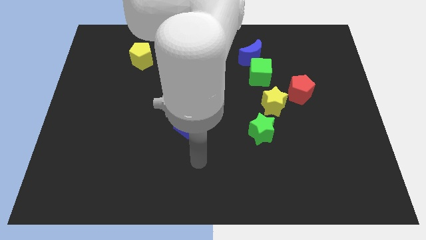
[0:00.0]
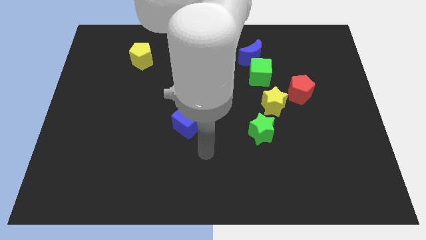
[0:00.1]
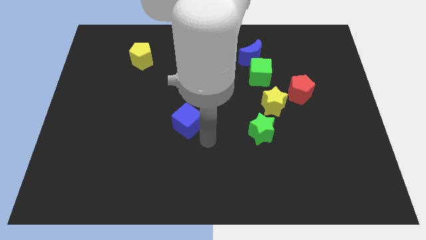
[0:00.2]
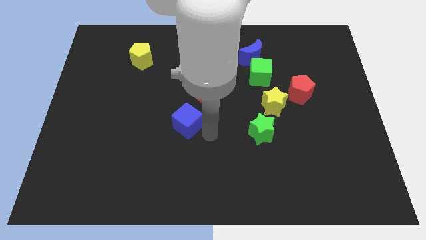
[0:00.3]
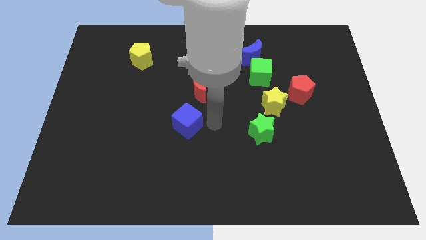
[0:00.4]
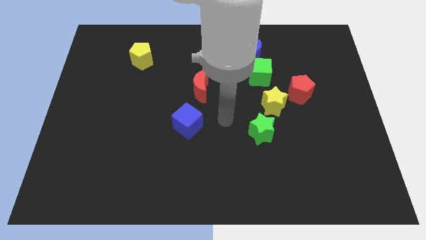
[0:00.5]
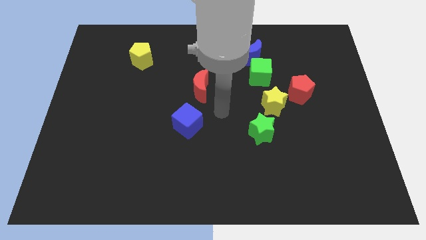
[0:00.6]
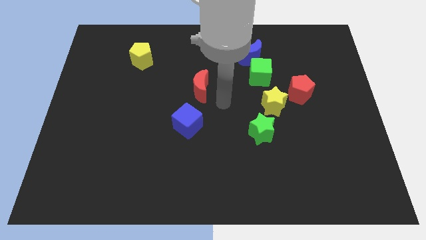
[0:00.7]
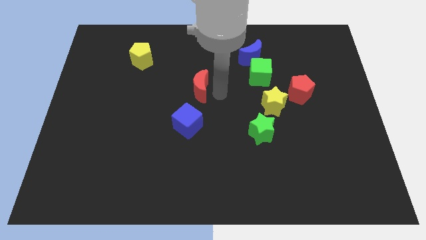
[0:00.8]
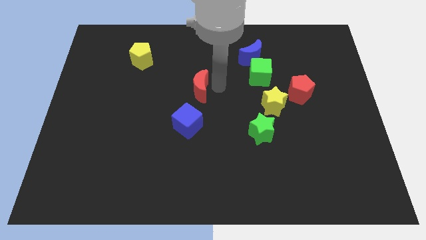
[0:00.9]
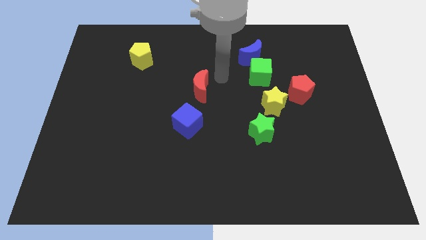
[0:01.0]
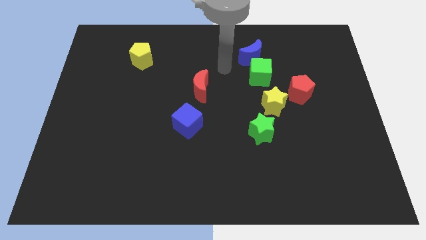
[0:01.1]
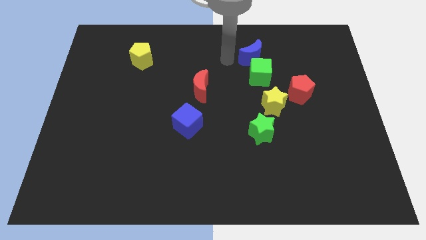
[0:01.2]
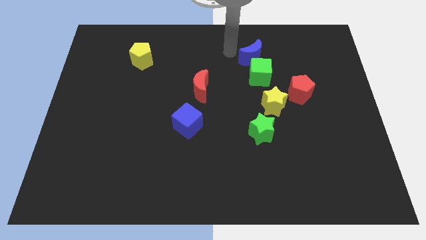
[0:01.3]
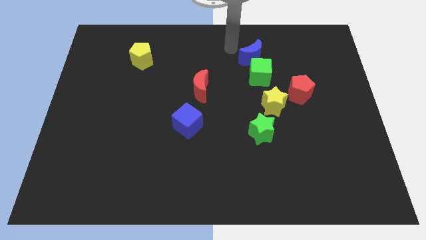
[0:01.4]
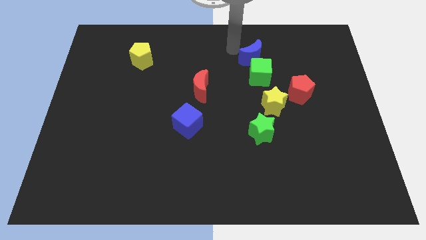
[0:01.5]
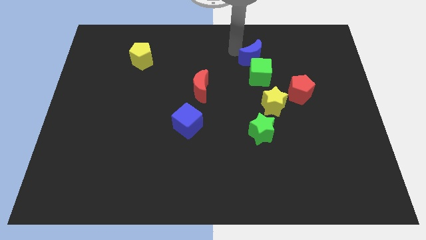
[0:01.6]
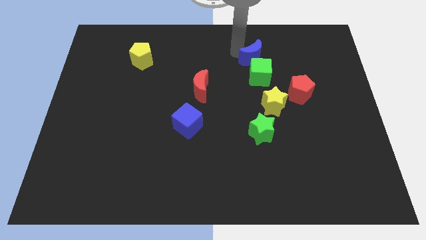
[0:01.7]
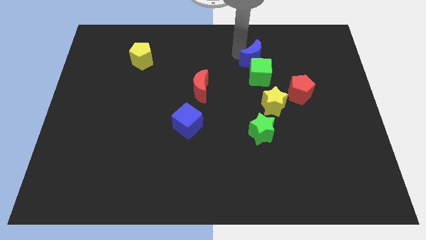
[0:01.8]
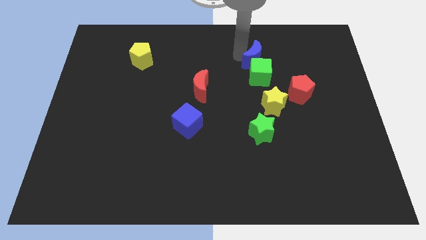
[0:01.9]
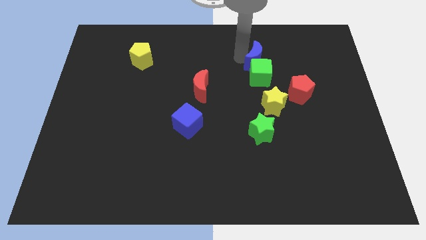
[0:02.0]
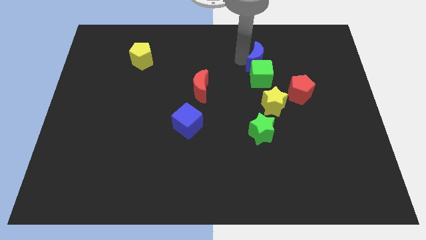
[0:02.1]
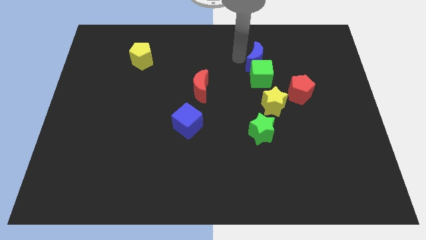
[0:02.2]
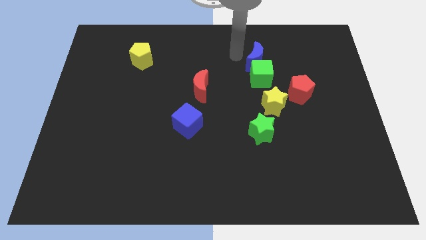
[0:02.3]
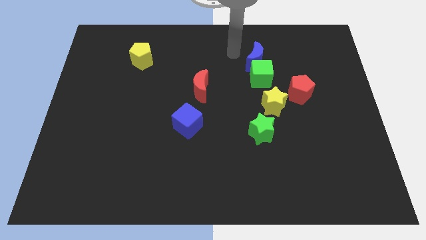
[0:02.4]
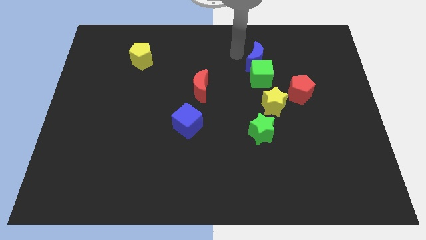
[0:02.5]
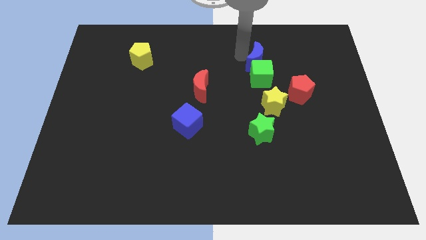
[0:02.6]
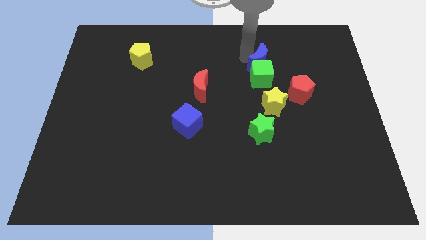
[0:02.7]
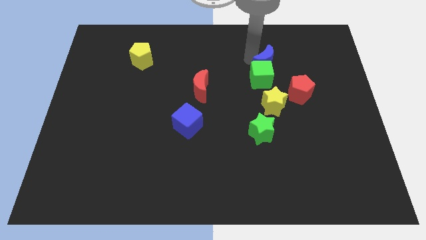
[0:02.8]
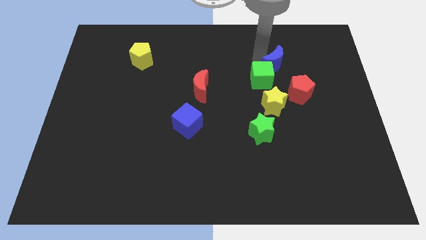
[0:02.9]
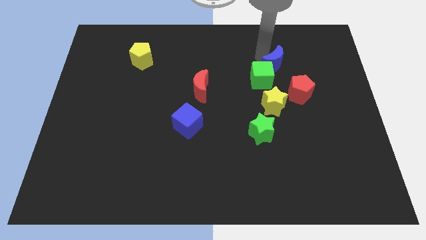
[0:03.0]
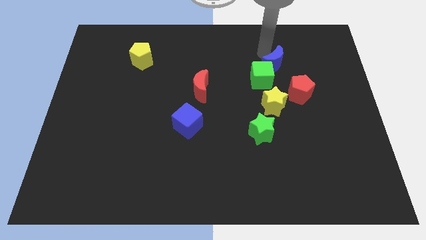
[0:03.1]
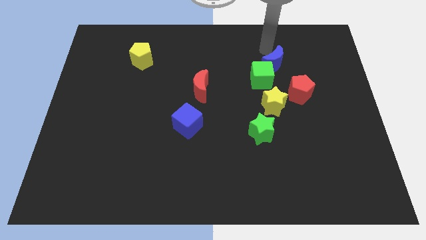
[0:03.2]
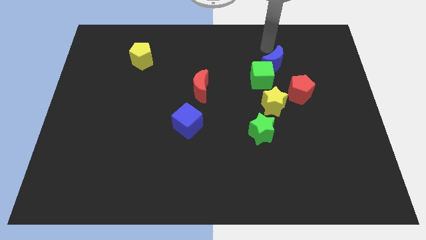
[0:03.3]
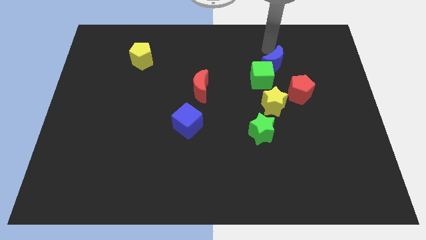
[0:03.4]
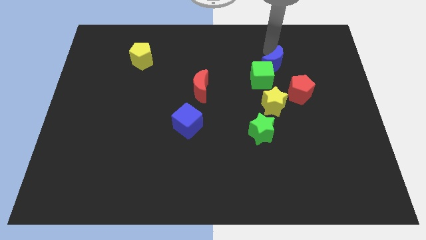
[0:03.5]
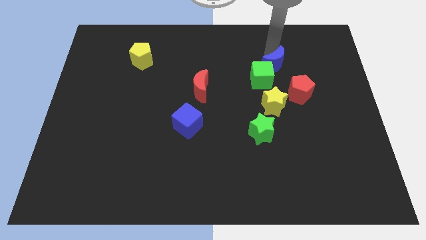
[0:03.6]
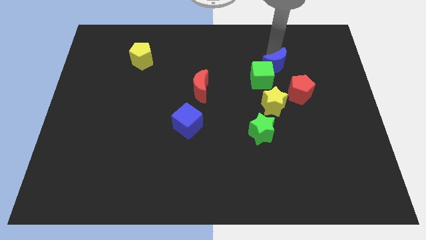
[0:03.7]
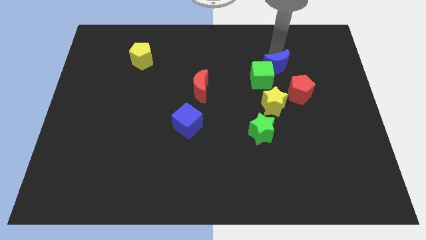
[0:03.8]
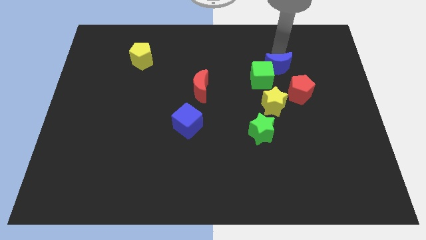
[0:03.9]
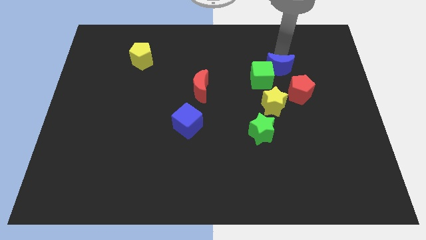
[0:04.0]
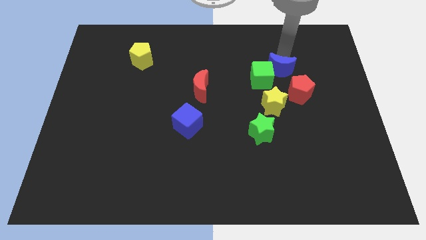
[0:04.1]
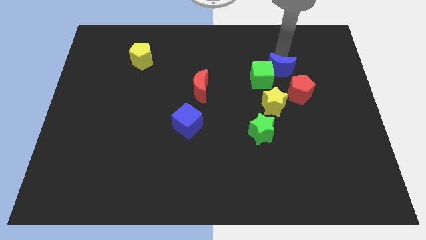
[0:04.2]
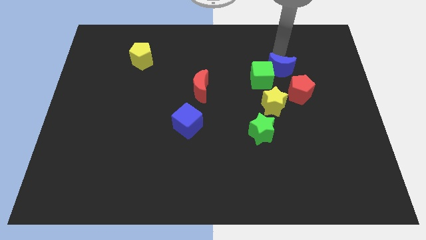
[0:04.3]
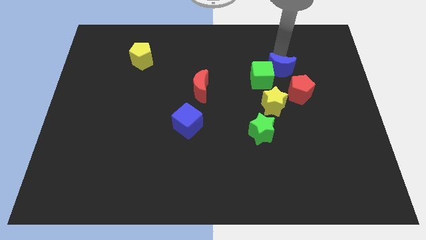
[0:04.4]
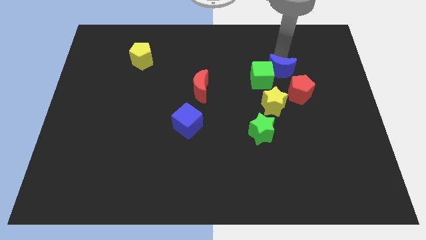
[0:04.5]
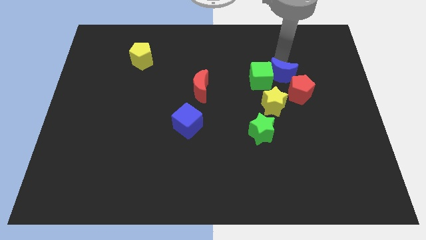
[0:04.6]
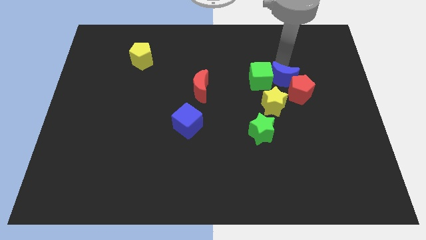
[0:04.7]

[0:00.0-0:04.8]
put the blue moon close to the red pentagon

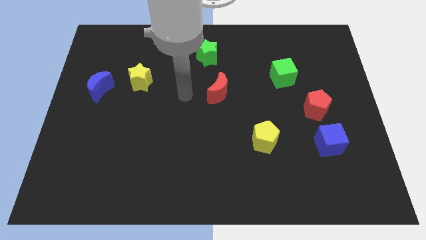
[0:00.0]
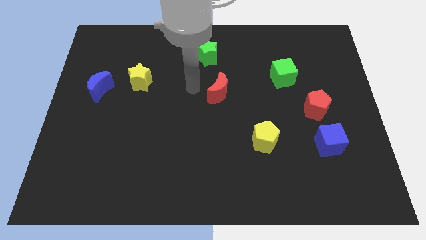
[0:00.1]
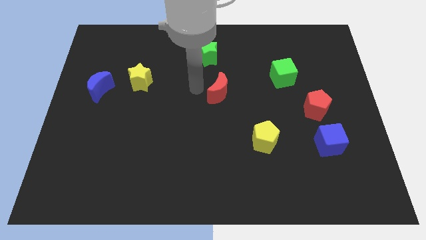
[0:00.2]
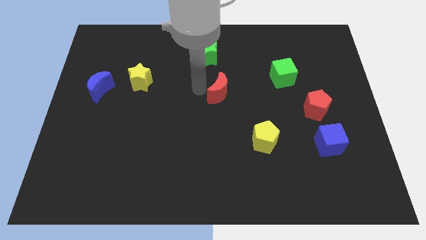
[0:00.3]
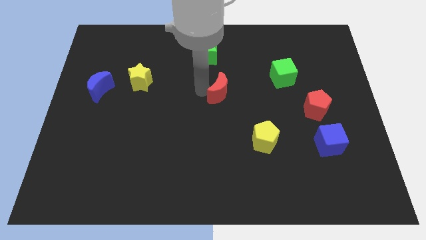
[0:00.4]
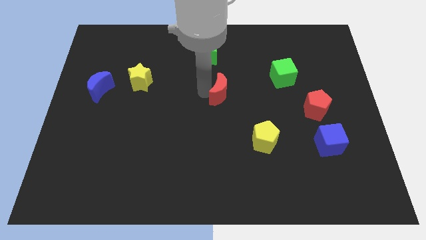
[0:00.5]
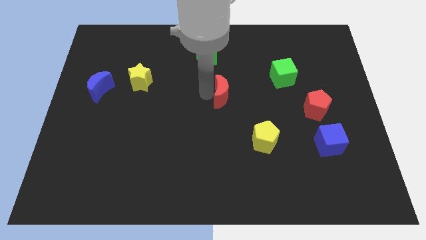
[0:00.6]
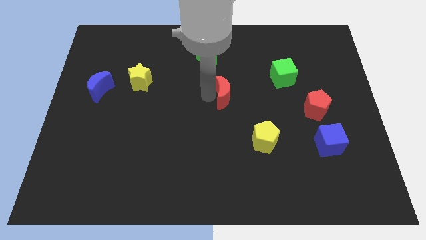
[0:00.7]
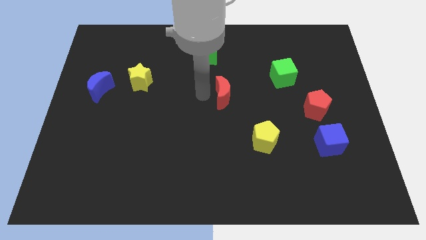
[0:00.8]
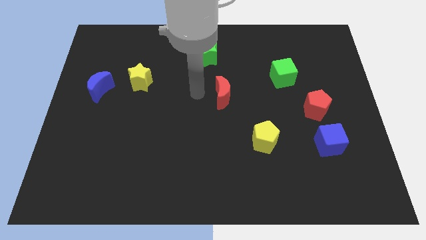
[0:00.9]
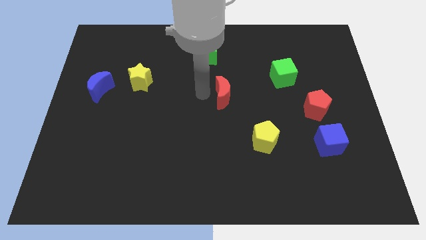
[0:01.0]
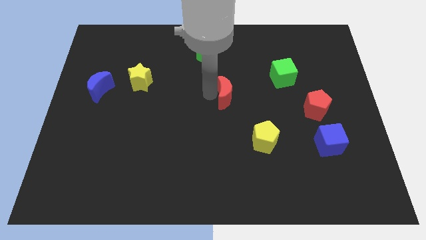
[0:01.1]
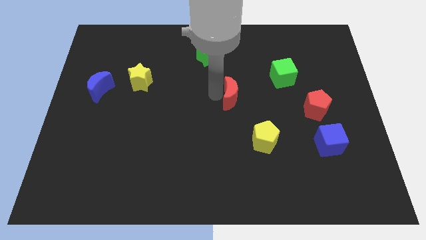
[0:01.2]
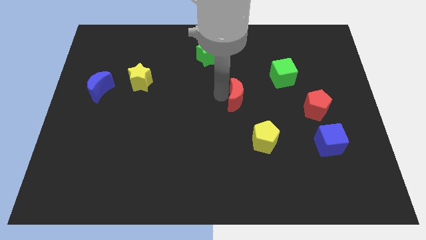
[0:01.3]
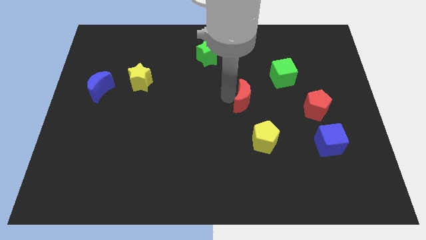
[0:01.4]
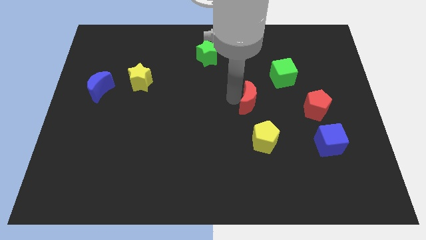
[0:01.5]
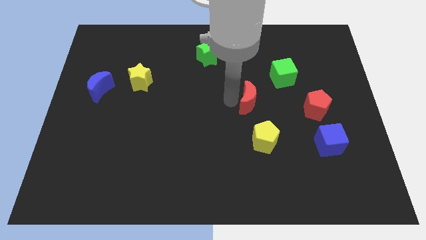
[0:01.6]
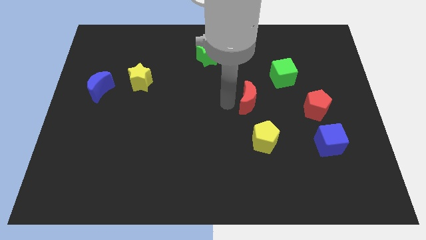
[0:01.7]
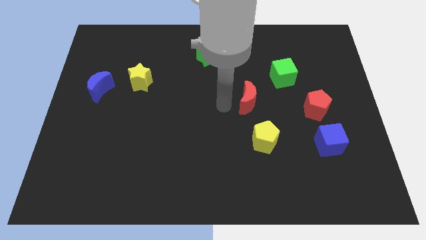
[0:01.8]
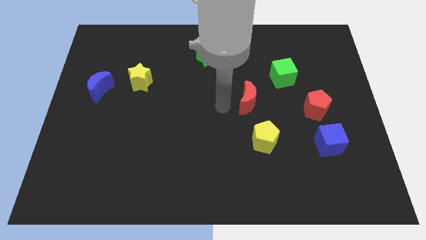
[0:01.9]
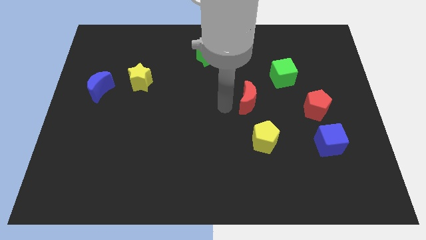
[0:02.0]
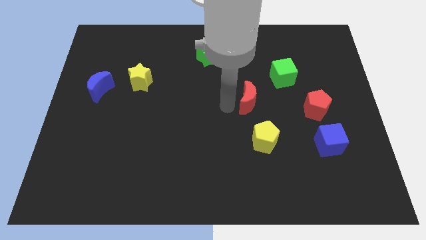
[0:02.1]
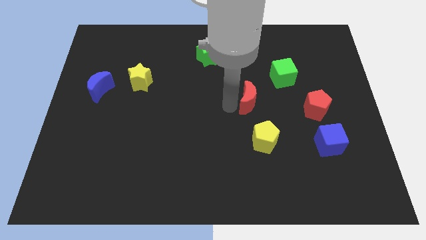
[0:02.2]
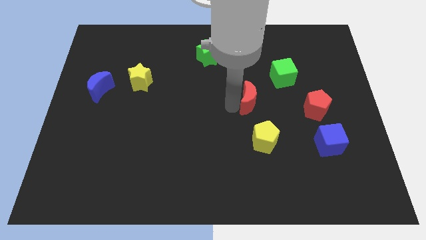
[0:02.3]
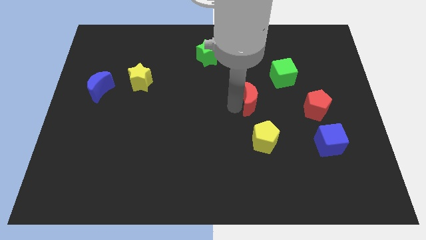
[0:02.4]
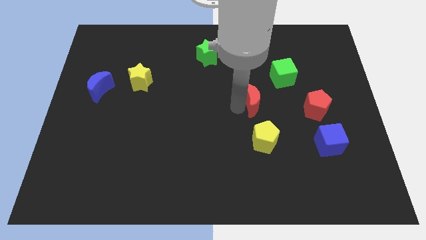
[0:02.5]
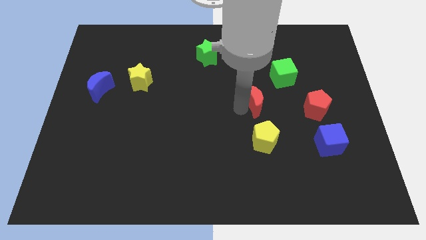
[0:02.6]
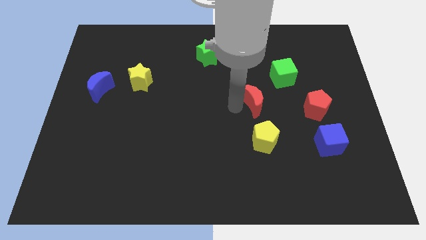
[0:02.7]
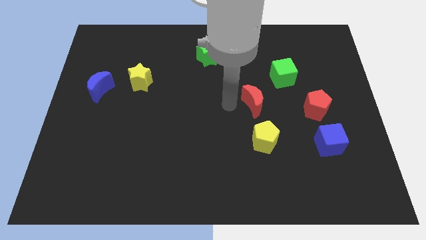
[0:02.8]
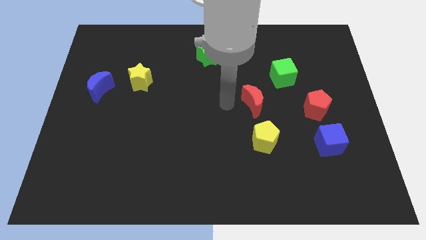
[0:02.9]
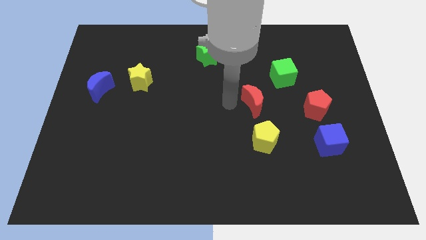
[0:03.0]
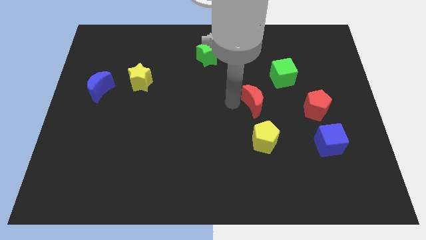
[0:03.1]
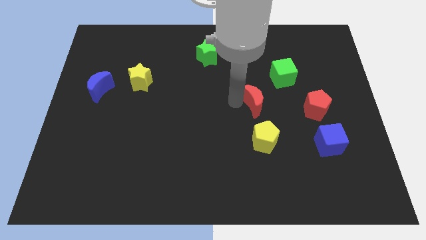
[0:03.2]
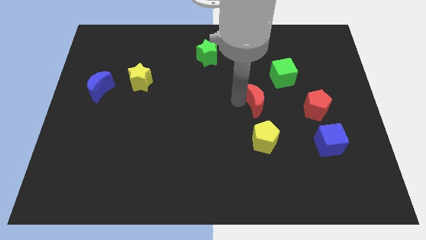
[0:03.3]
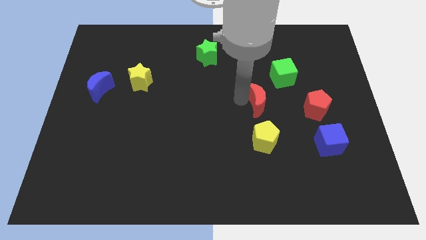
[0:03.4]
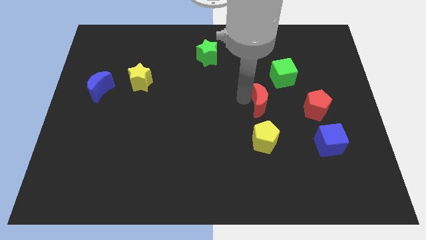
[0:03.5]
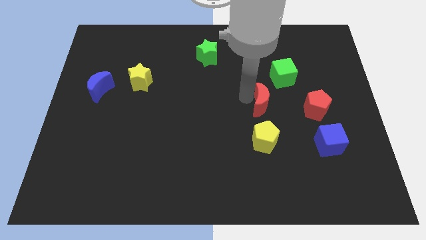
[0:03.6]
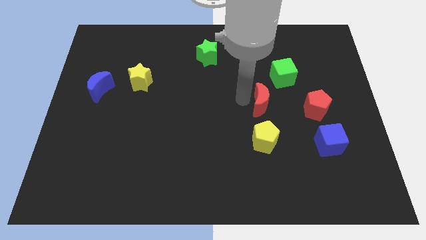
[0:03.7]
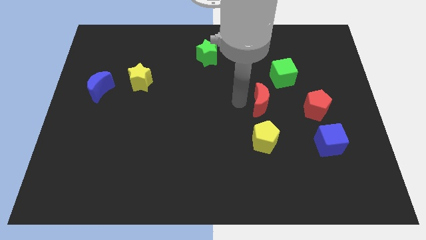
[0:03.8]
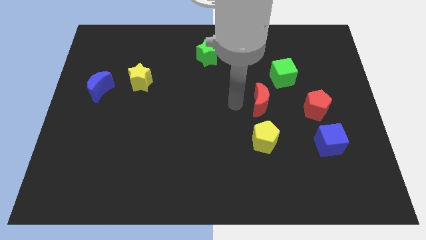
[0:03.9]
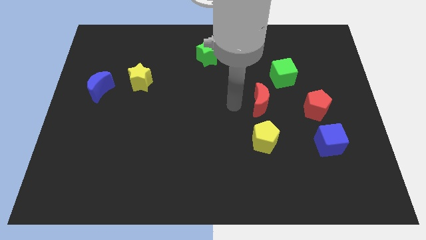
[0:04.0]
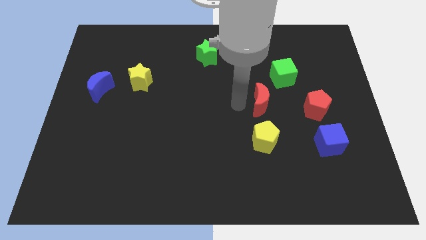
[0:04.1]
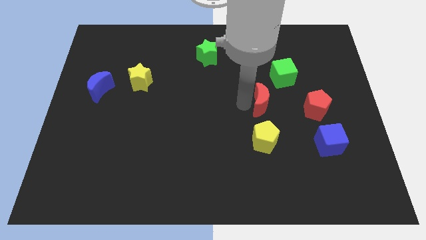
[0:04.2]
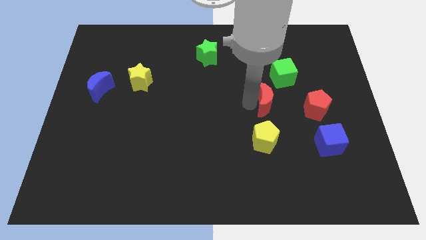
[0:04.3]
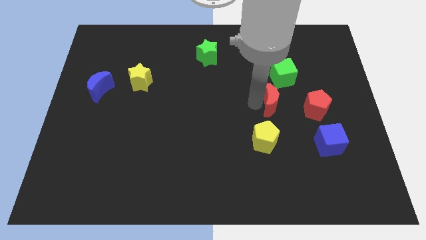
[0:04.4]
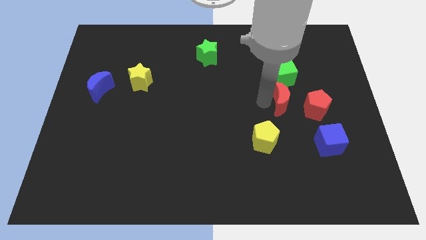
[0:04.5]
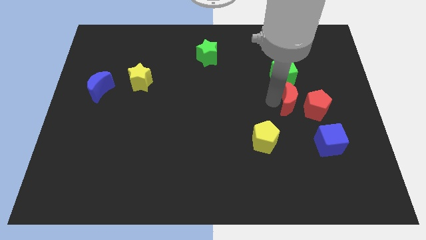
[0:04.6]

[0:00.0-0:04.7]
push the red moon towards the red pentagon
